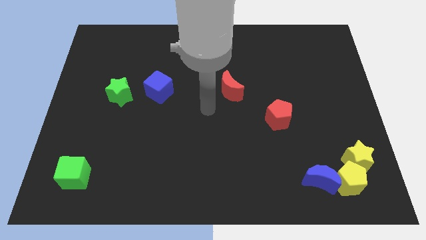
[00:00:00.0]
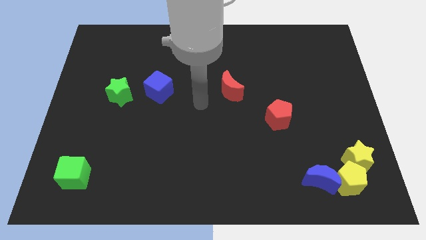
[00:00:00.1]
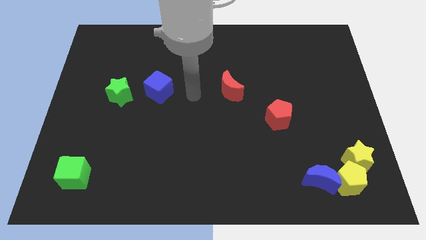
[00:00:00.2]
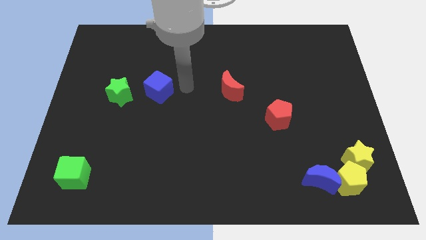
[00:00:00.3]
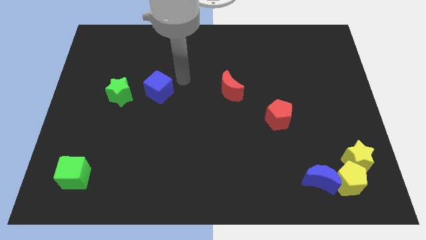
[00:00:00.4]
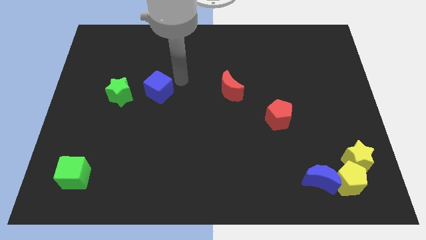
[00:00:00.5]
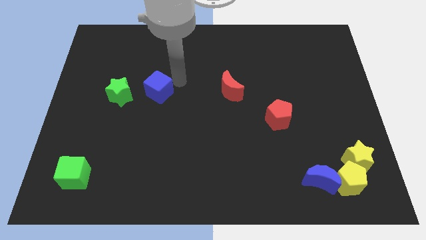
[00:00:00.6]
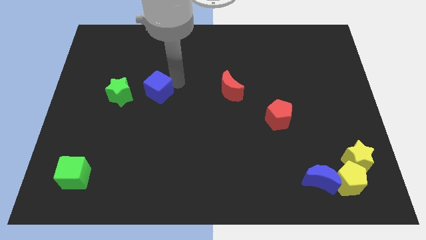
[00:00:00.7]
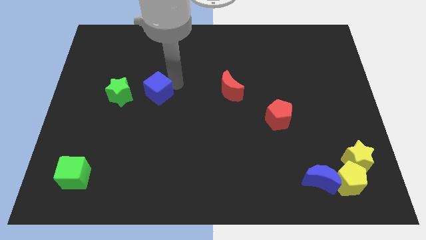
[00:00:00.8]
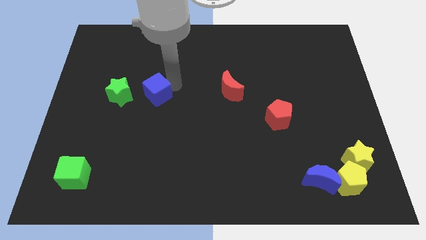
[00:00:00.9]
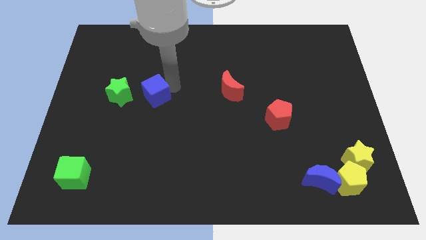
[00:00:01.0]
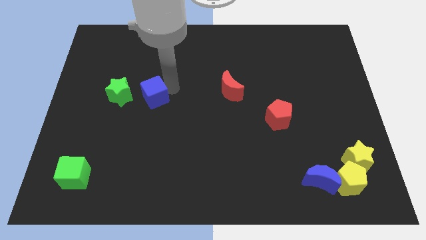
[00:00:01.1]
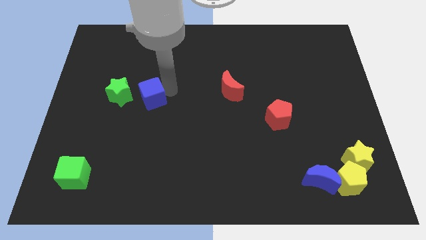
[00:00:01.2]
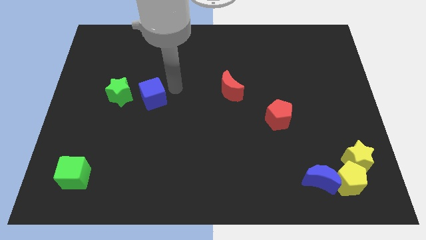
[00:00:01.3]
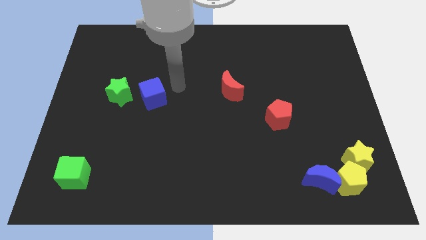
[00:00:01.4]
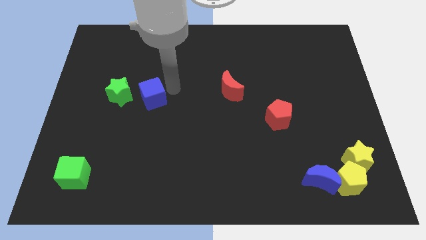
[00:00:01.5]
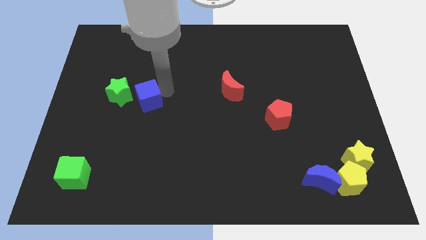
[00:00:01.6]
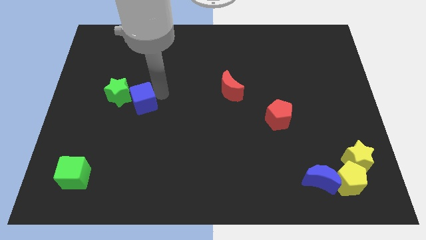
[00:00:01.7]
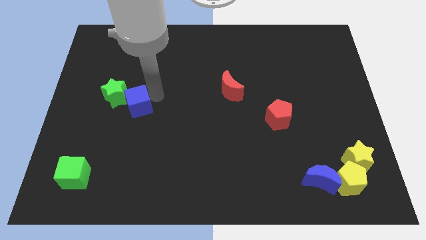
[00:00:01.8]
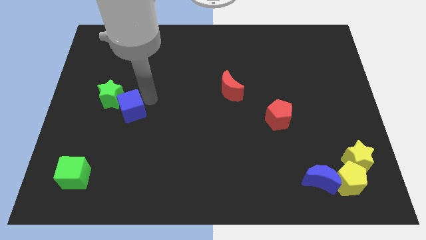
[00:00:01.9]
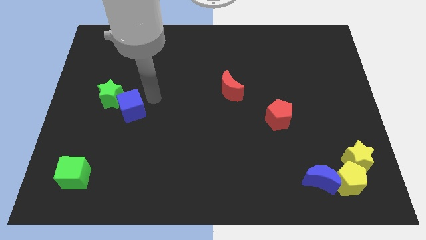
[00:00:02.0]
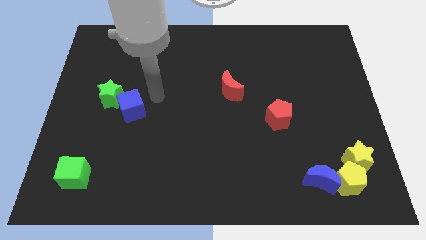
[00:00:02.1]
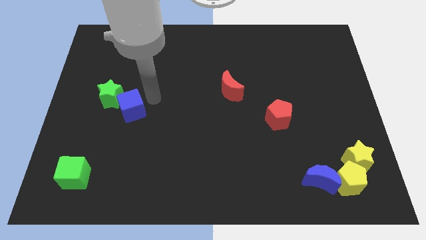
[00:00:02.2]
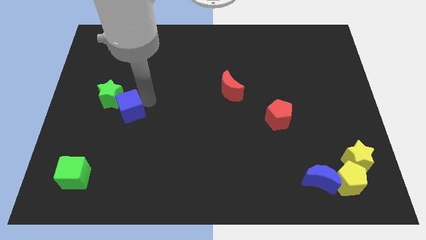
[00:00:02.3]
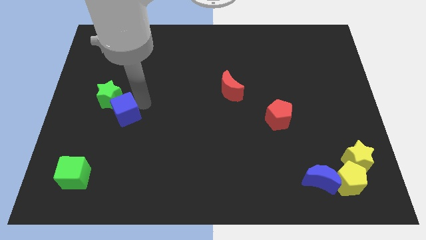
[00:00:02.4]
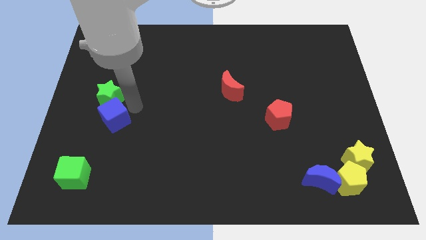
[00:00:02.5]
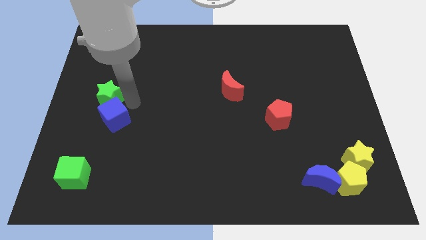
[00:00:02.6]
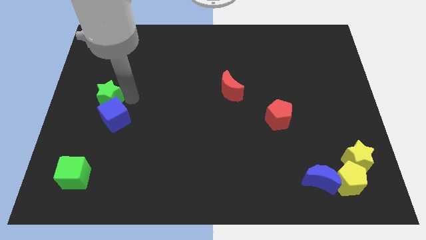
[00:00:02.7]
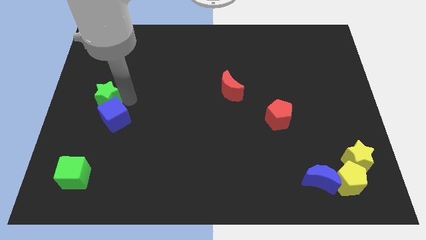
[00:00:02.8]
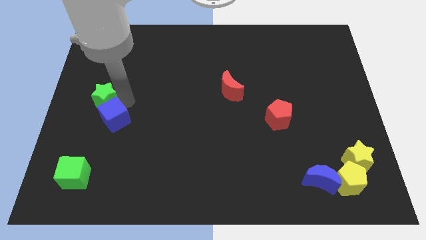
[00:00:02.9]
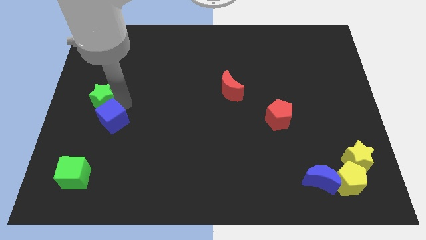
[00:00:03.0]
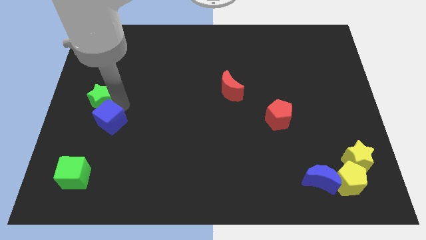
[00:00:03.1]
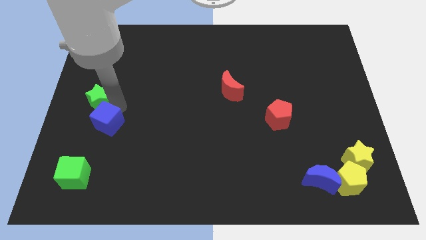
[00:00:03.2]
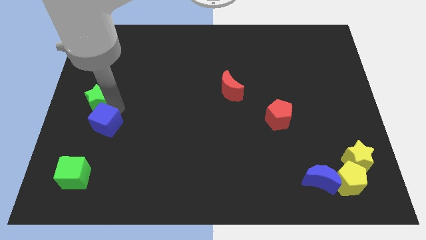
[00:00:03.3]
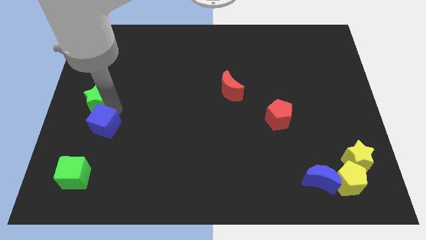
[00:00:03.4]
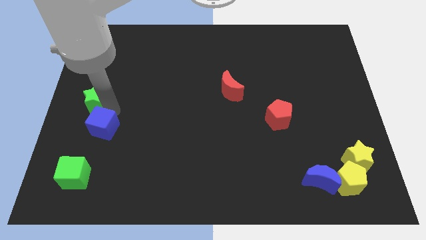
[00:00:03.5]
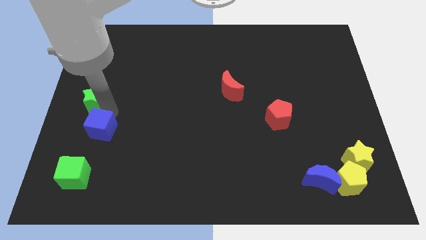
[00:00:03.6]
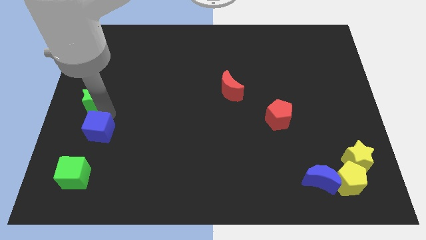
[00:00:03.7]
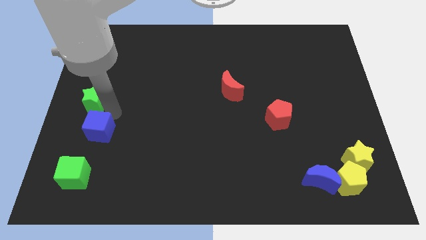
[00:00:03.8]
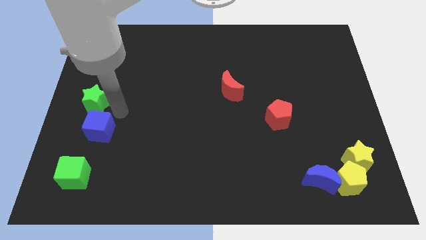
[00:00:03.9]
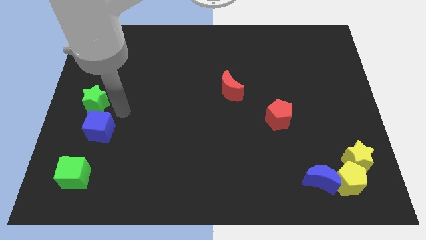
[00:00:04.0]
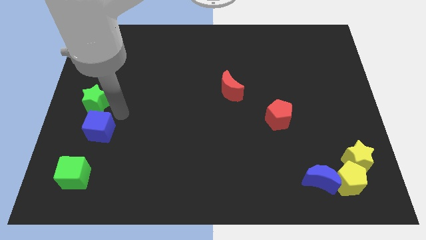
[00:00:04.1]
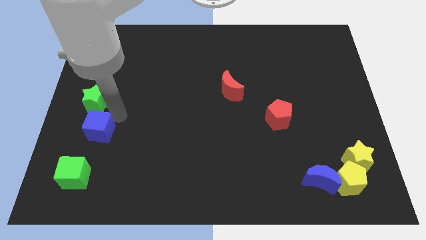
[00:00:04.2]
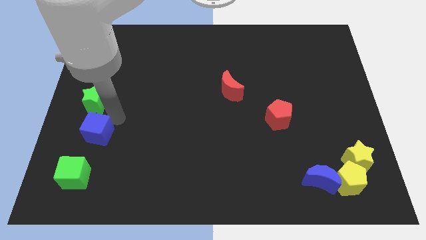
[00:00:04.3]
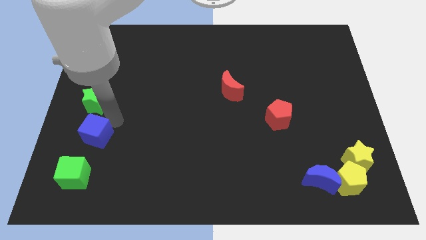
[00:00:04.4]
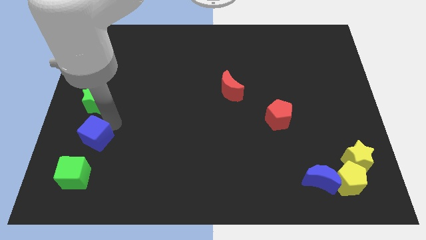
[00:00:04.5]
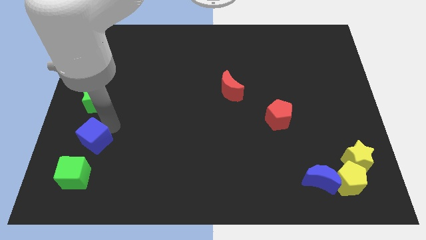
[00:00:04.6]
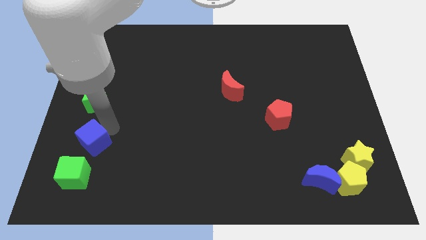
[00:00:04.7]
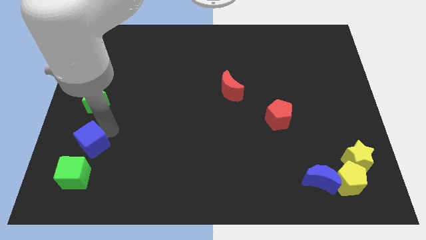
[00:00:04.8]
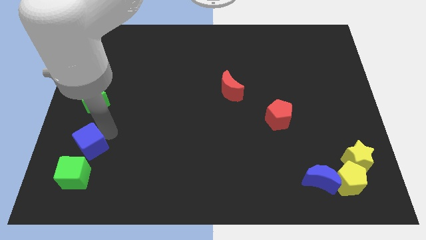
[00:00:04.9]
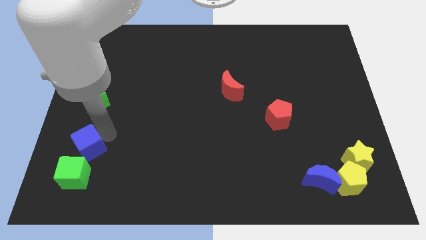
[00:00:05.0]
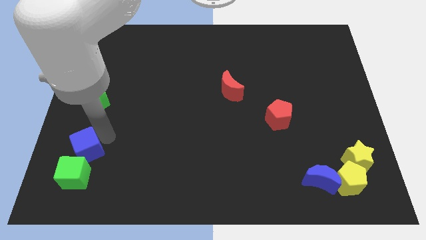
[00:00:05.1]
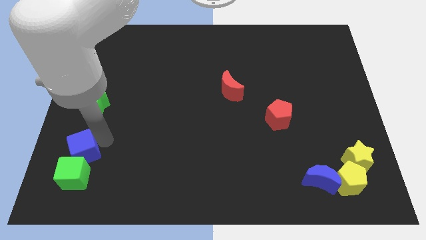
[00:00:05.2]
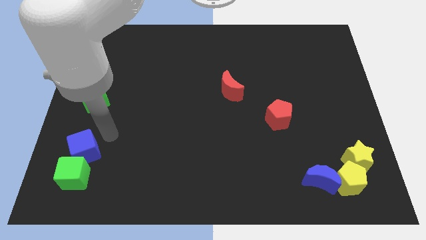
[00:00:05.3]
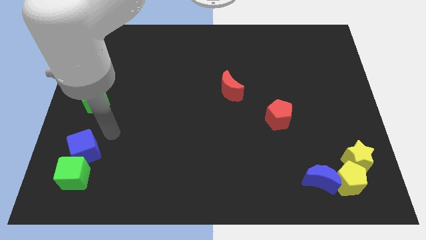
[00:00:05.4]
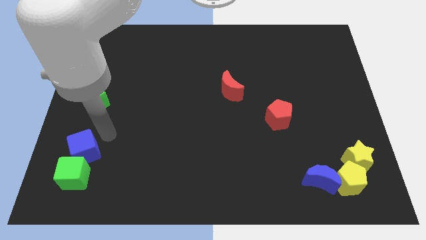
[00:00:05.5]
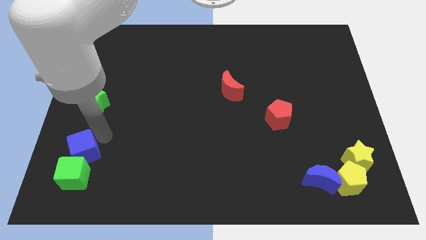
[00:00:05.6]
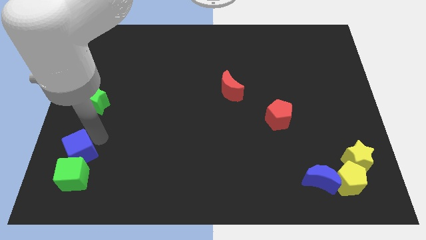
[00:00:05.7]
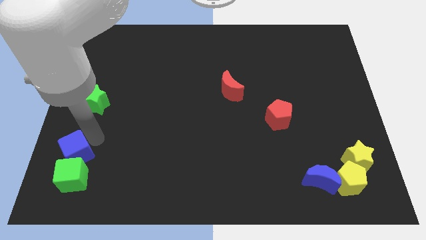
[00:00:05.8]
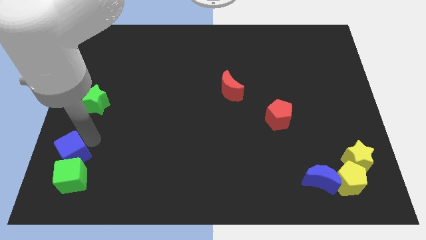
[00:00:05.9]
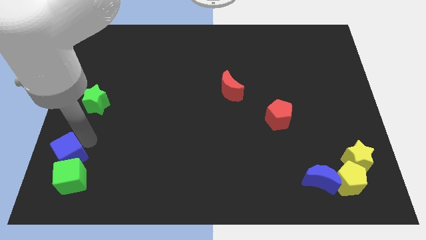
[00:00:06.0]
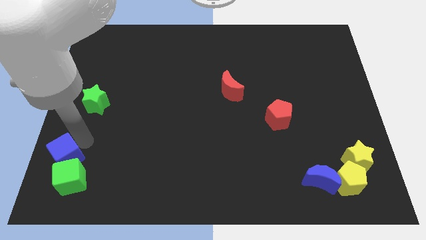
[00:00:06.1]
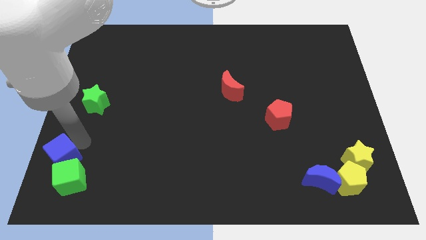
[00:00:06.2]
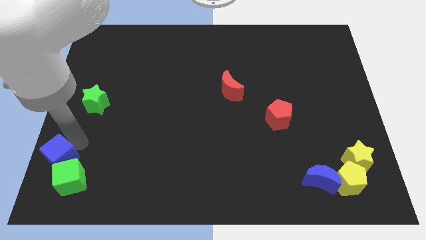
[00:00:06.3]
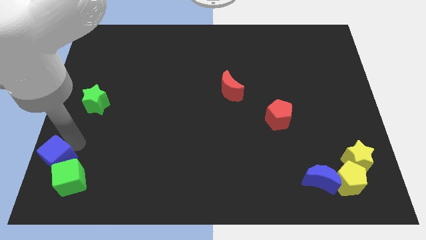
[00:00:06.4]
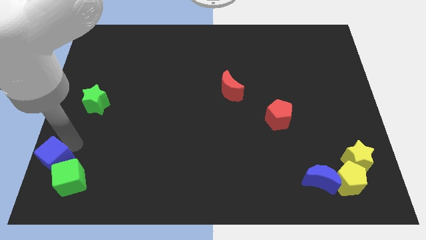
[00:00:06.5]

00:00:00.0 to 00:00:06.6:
push the blue cube to the bottom left
